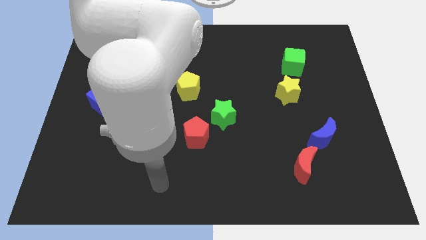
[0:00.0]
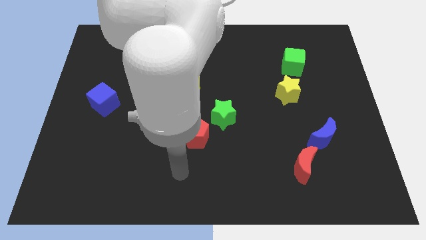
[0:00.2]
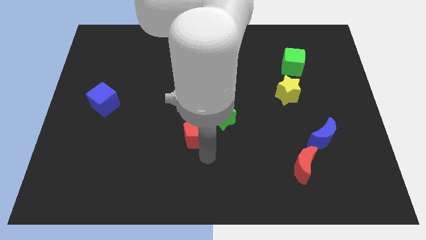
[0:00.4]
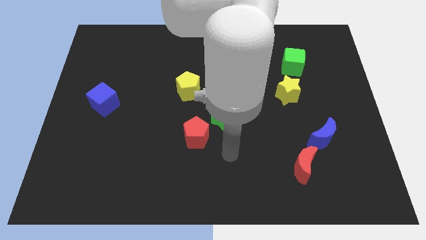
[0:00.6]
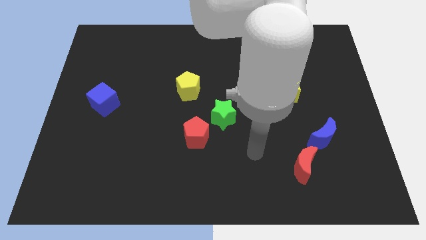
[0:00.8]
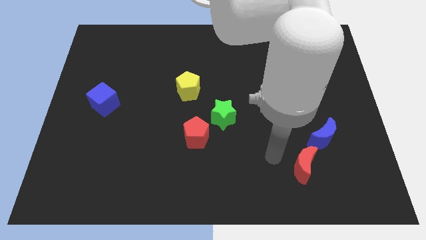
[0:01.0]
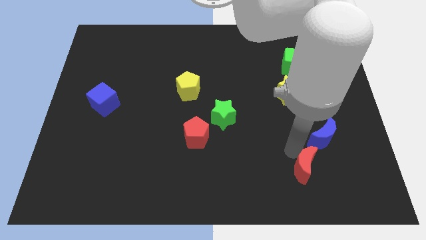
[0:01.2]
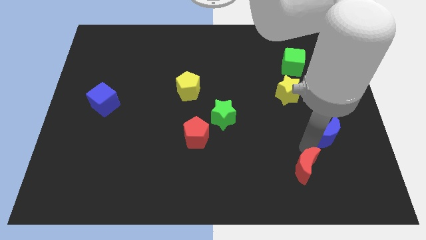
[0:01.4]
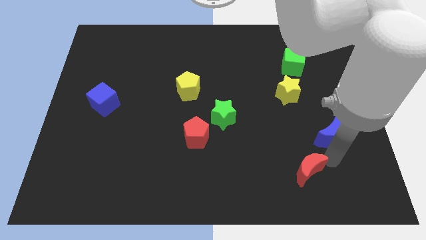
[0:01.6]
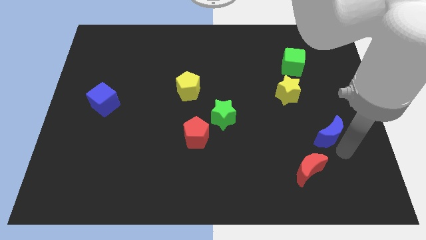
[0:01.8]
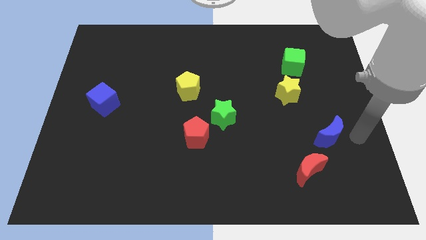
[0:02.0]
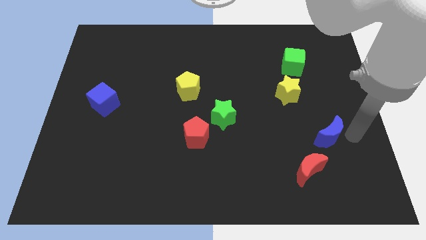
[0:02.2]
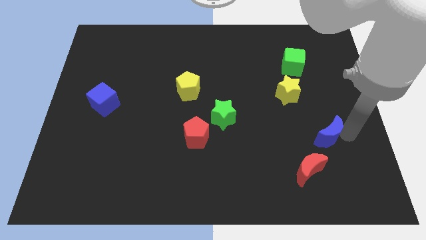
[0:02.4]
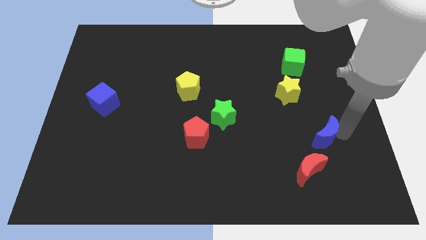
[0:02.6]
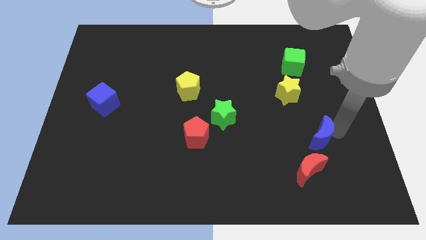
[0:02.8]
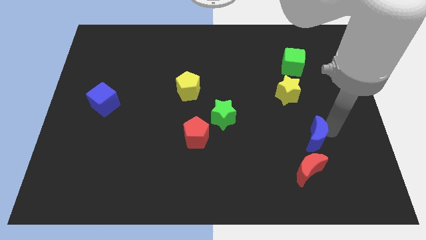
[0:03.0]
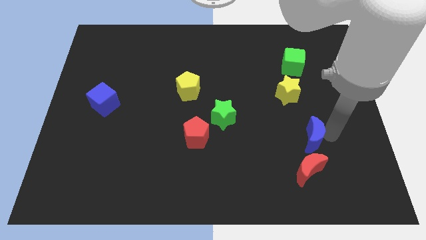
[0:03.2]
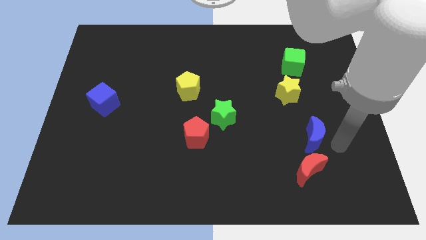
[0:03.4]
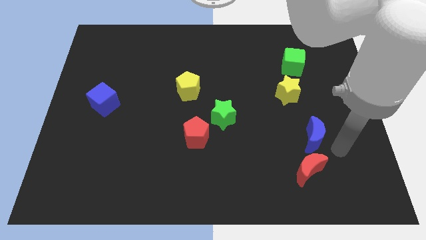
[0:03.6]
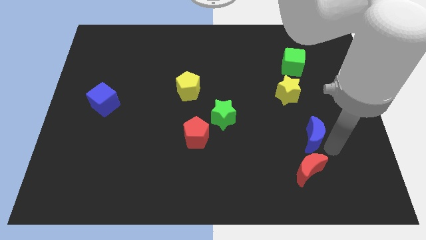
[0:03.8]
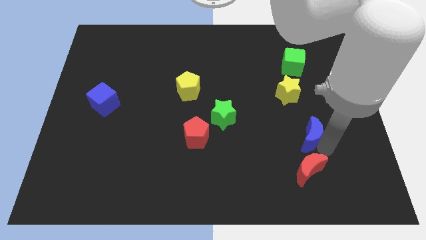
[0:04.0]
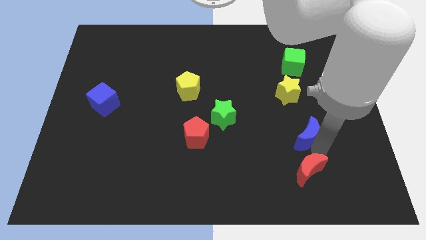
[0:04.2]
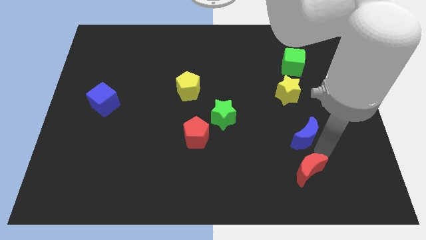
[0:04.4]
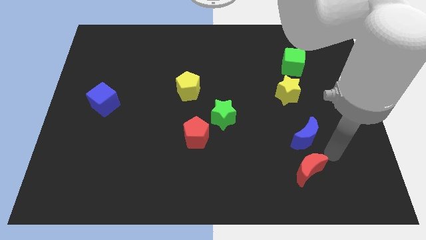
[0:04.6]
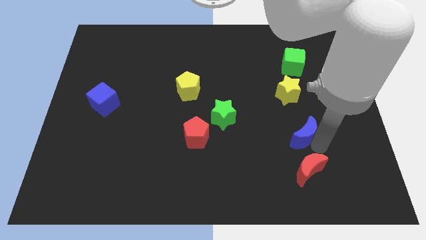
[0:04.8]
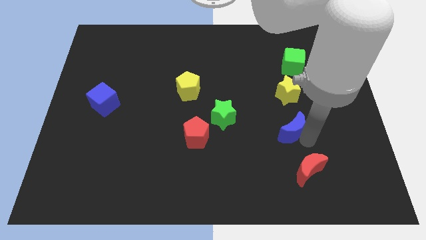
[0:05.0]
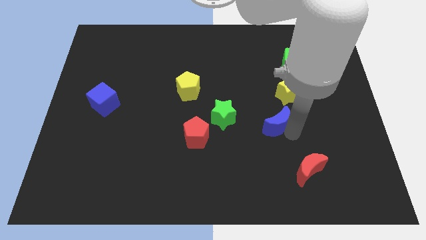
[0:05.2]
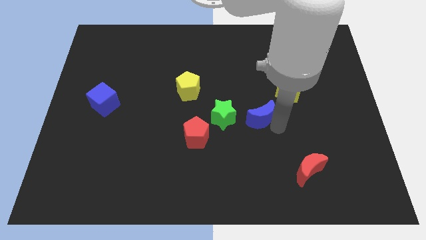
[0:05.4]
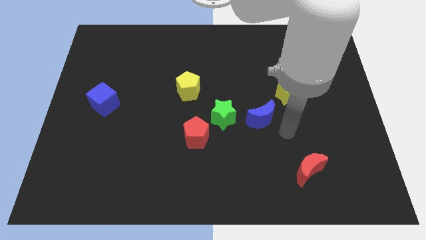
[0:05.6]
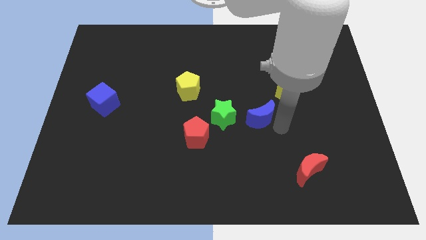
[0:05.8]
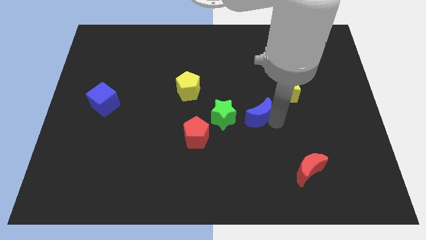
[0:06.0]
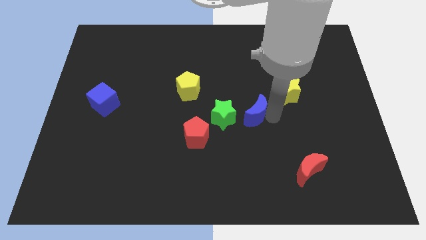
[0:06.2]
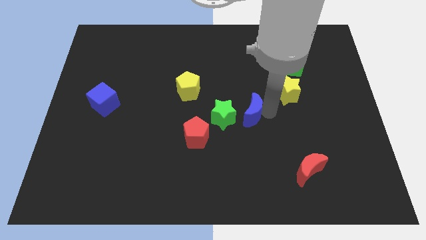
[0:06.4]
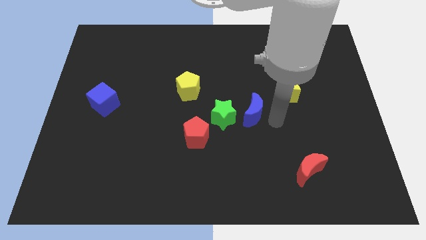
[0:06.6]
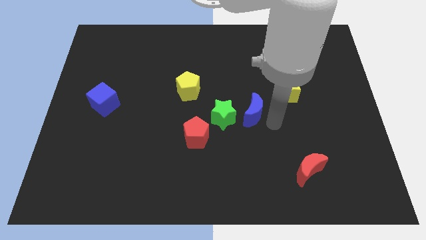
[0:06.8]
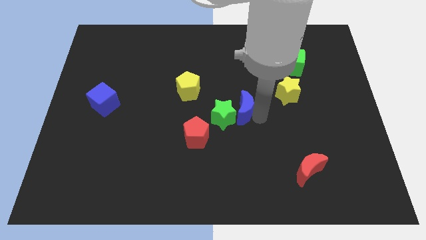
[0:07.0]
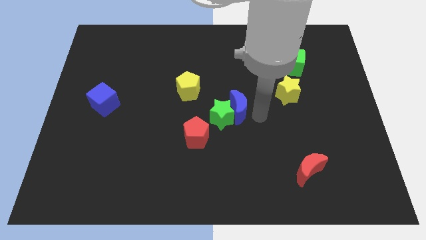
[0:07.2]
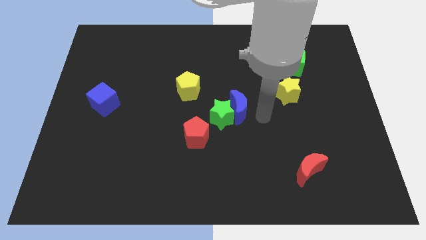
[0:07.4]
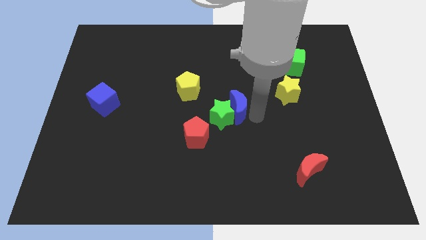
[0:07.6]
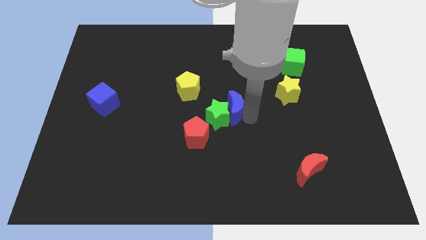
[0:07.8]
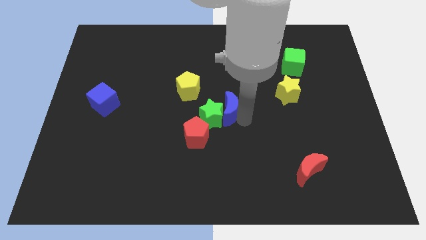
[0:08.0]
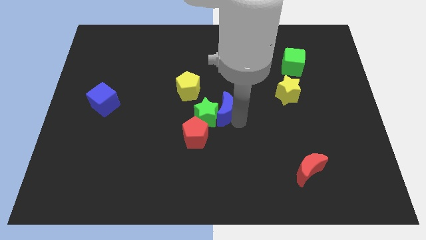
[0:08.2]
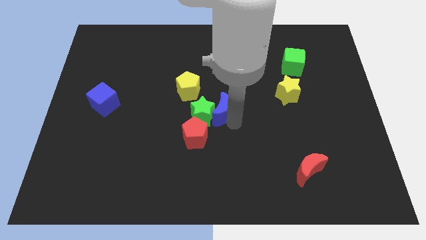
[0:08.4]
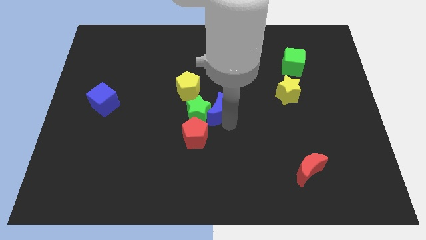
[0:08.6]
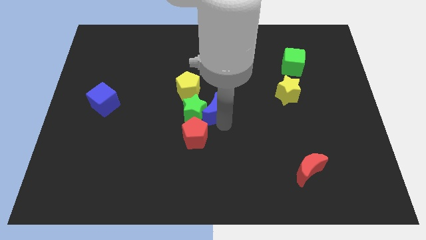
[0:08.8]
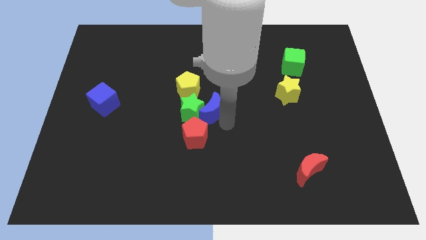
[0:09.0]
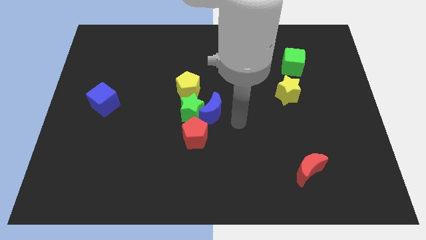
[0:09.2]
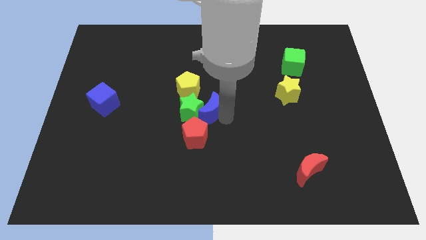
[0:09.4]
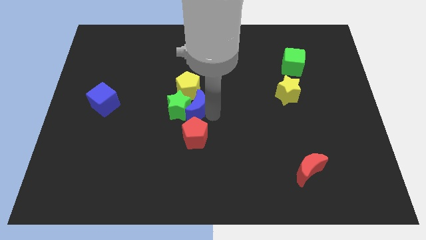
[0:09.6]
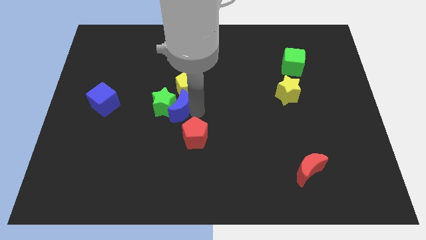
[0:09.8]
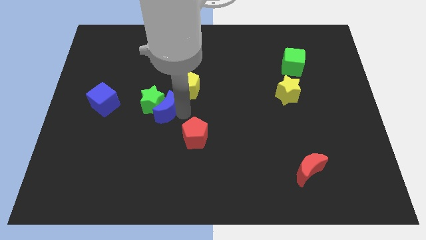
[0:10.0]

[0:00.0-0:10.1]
put the blue moon just right of the blue cube

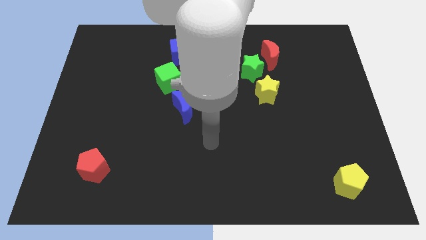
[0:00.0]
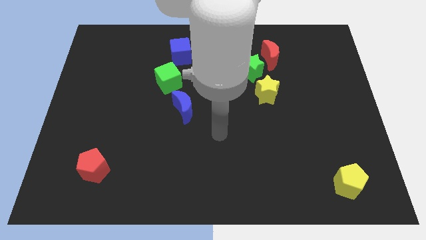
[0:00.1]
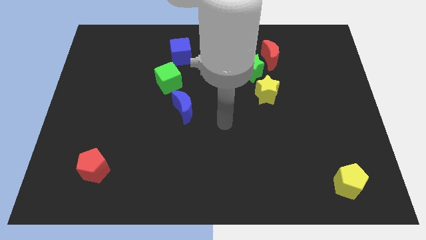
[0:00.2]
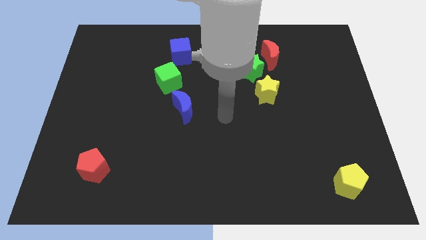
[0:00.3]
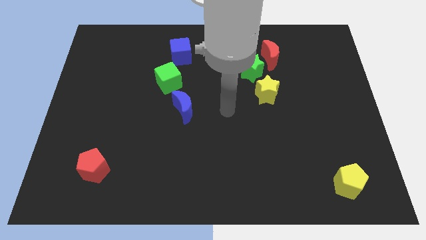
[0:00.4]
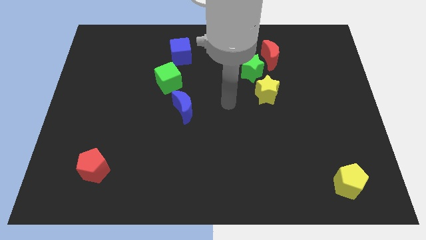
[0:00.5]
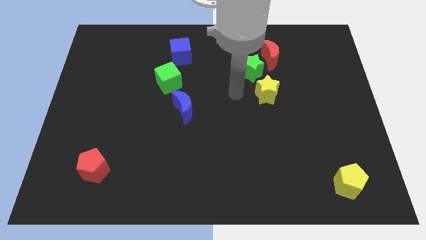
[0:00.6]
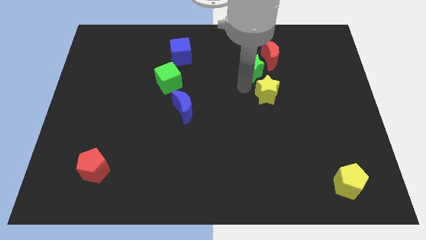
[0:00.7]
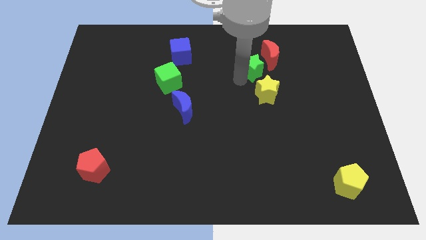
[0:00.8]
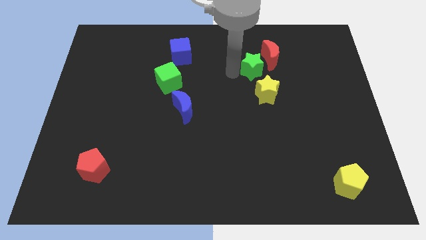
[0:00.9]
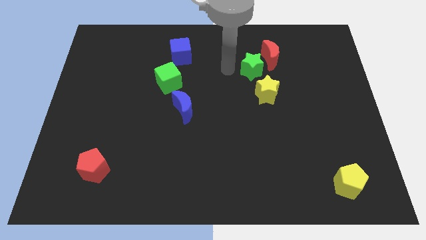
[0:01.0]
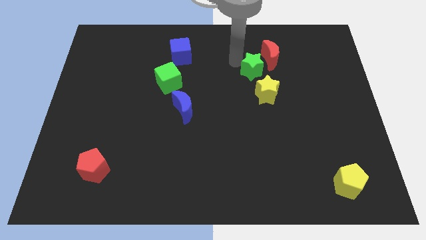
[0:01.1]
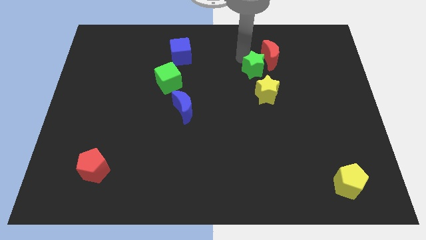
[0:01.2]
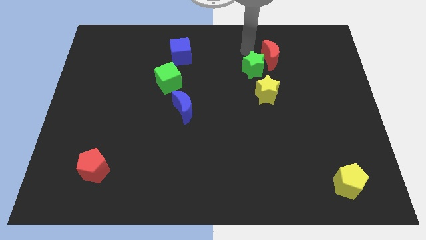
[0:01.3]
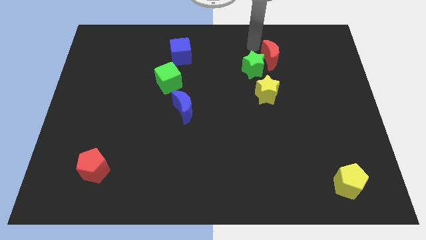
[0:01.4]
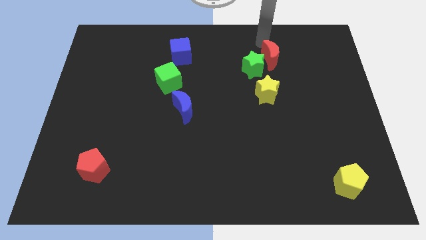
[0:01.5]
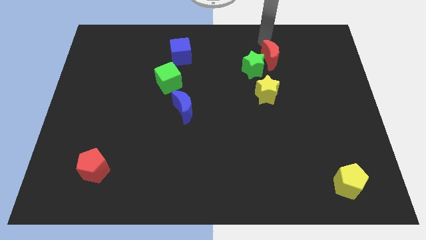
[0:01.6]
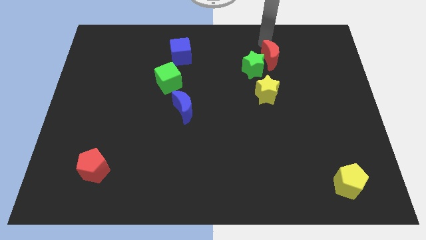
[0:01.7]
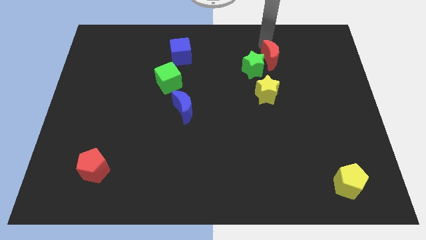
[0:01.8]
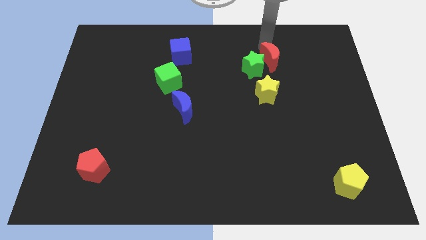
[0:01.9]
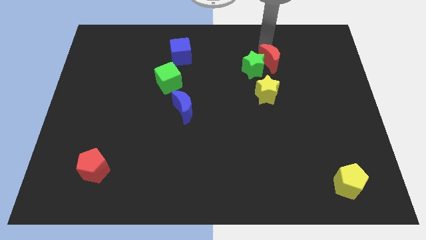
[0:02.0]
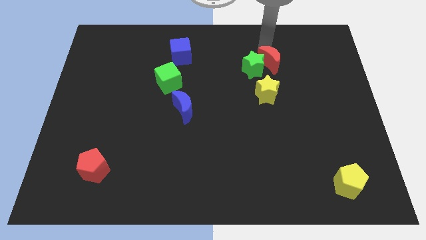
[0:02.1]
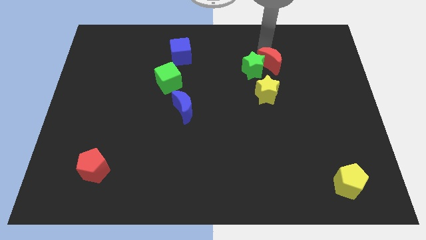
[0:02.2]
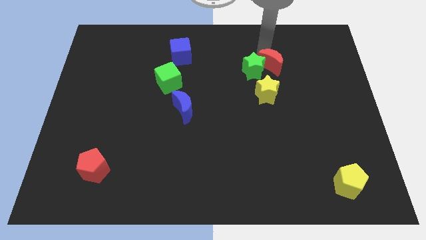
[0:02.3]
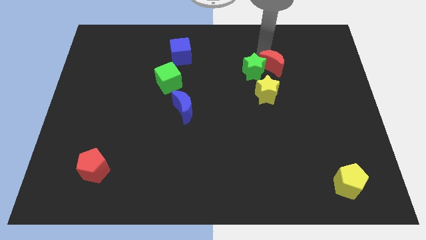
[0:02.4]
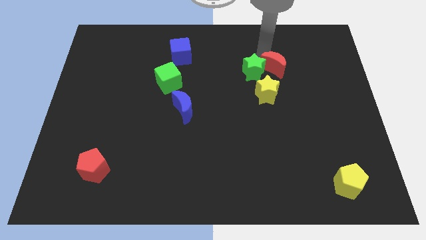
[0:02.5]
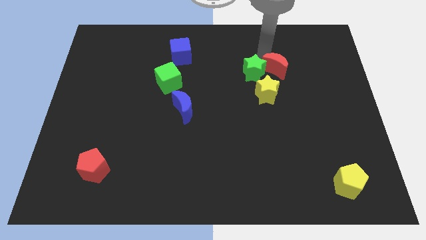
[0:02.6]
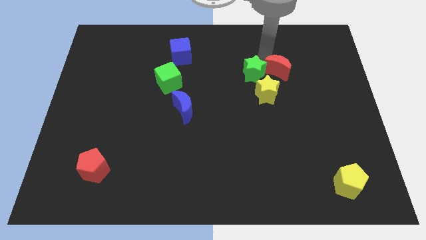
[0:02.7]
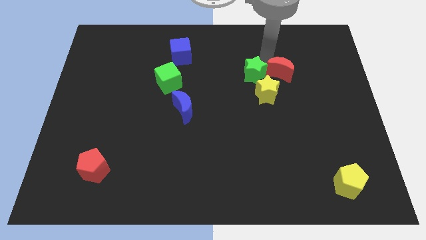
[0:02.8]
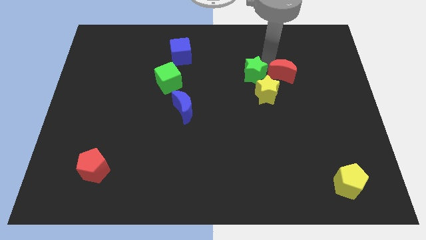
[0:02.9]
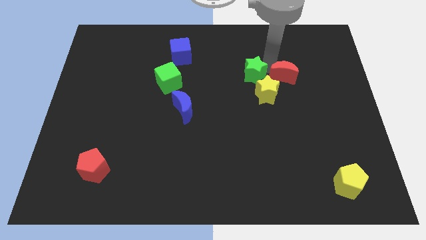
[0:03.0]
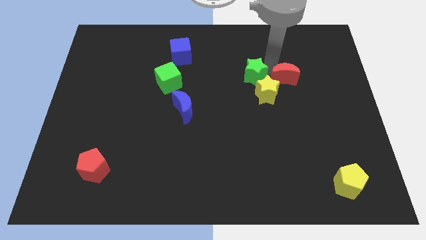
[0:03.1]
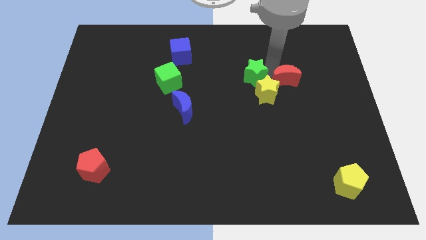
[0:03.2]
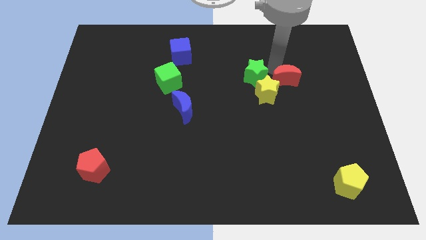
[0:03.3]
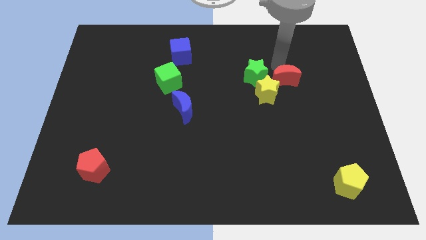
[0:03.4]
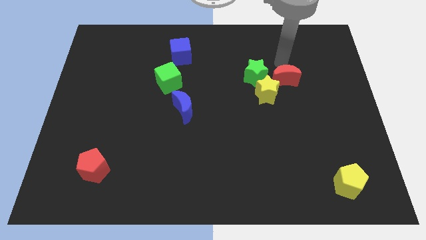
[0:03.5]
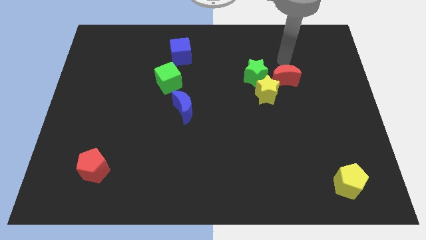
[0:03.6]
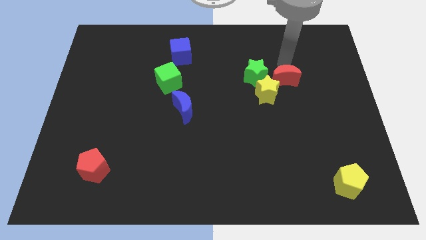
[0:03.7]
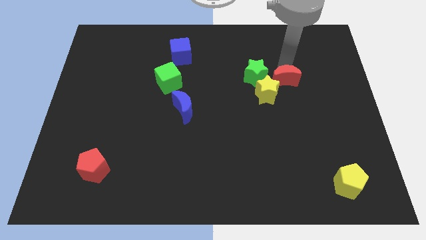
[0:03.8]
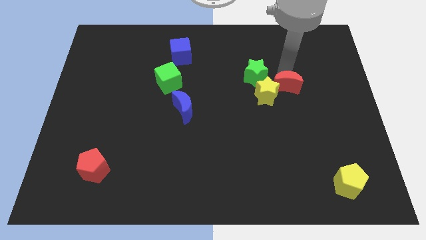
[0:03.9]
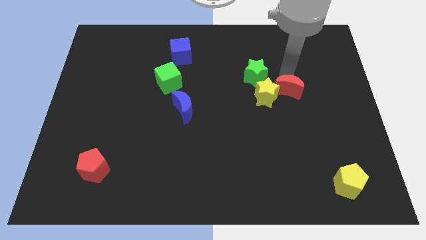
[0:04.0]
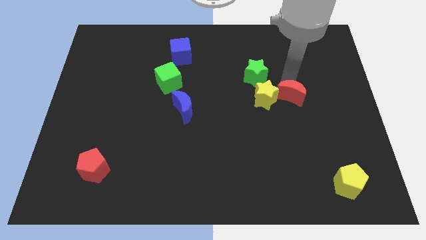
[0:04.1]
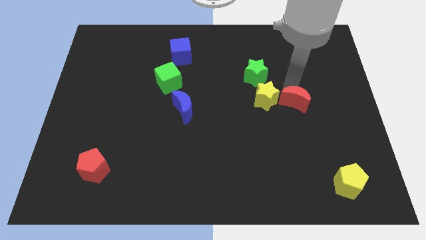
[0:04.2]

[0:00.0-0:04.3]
slide the red moon diagonally down and to the right of the yellow star
